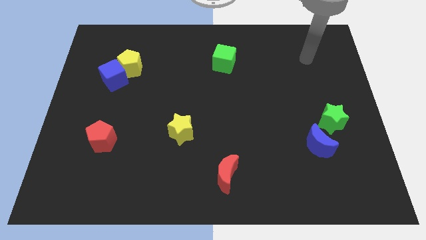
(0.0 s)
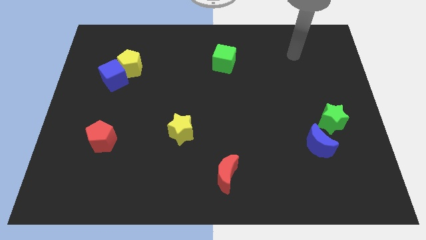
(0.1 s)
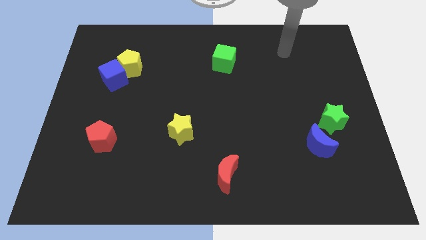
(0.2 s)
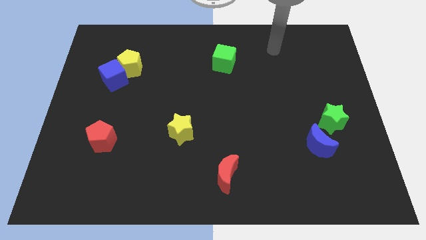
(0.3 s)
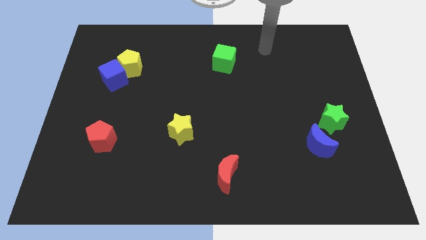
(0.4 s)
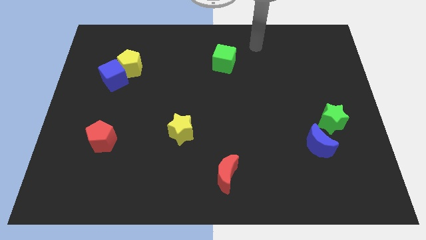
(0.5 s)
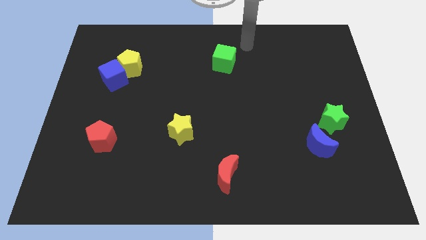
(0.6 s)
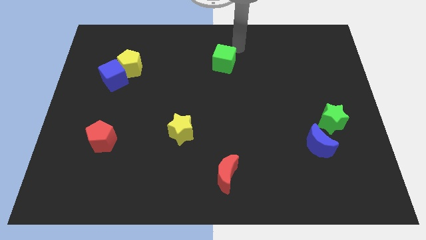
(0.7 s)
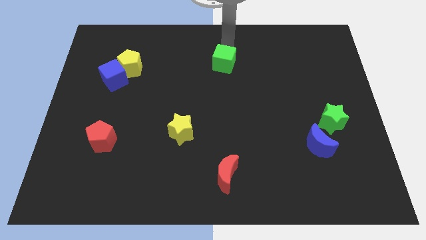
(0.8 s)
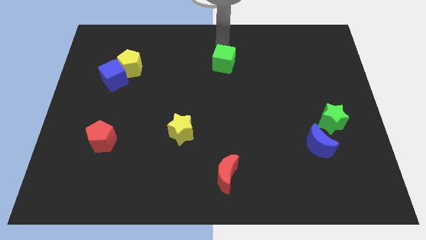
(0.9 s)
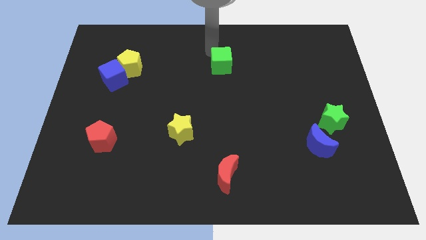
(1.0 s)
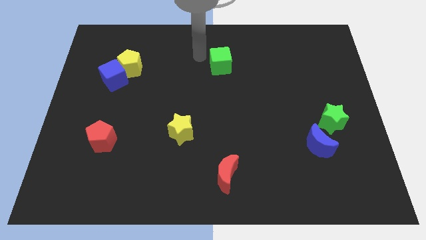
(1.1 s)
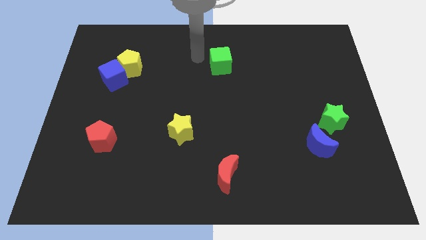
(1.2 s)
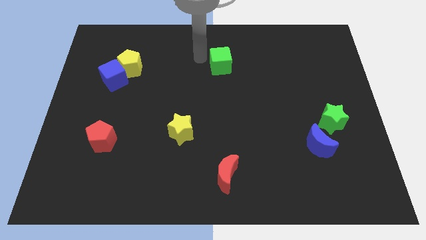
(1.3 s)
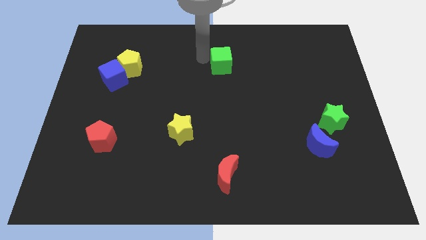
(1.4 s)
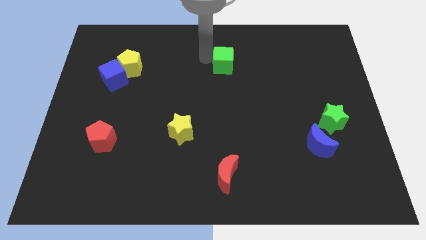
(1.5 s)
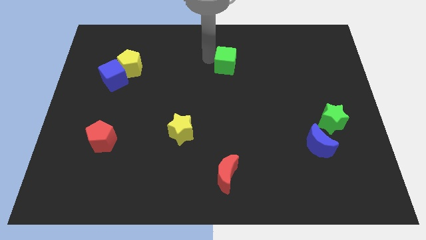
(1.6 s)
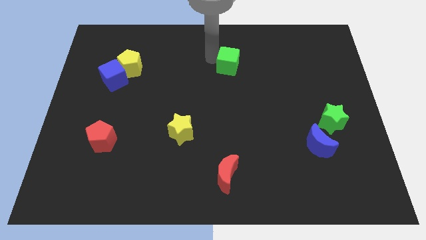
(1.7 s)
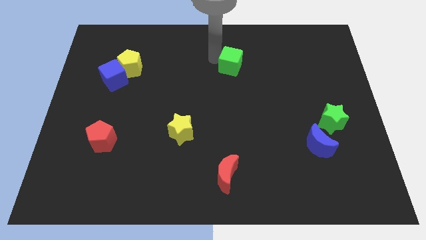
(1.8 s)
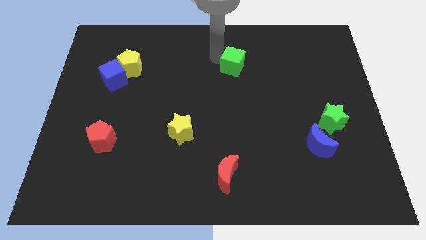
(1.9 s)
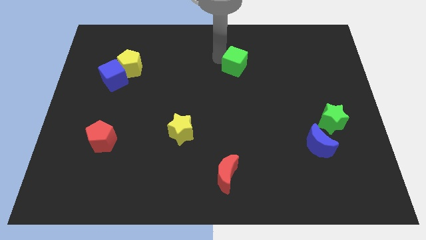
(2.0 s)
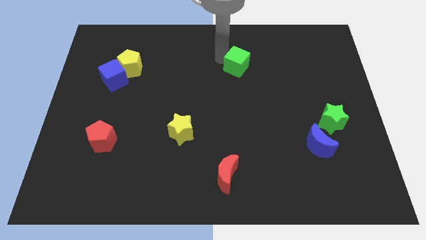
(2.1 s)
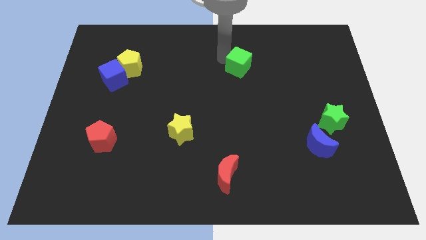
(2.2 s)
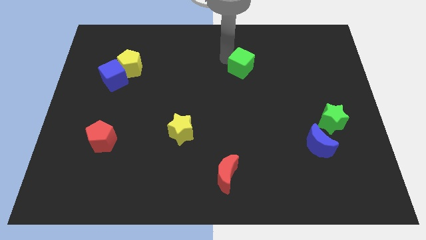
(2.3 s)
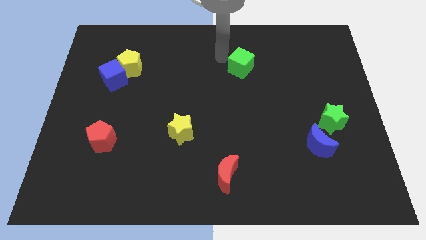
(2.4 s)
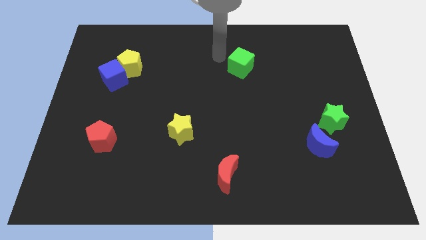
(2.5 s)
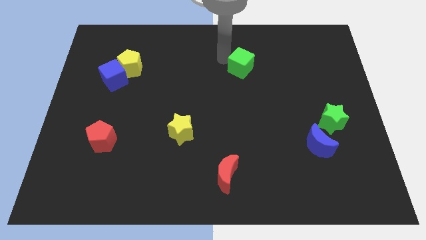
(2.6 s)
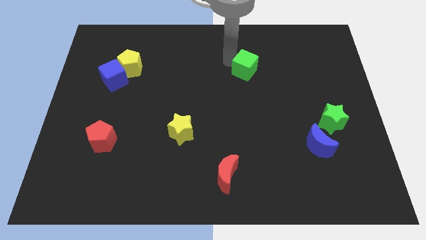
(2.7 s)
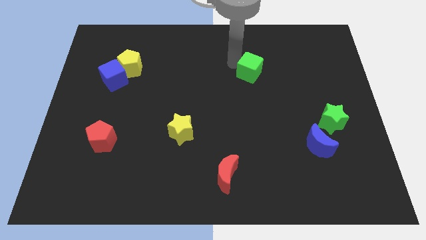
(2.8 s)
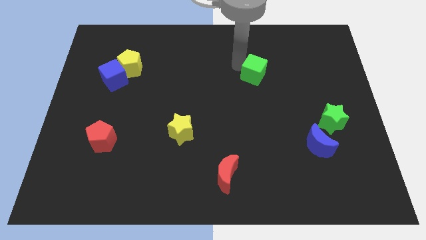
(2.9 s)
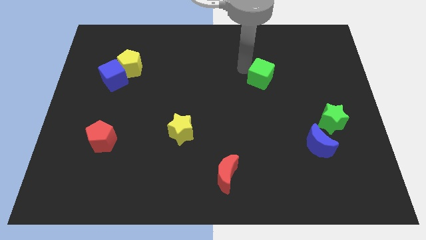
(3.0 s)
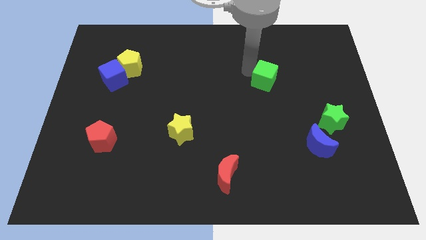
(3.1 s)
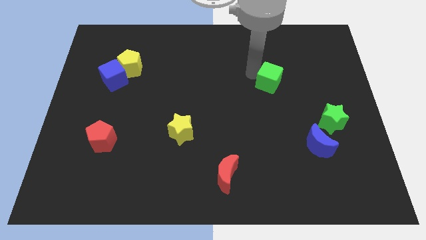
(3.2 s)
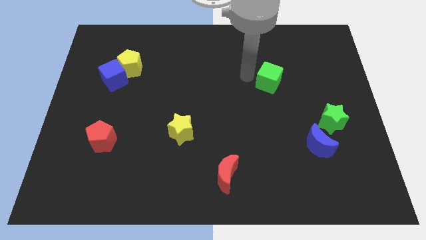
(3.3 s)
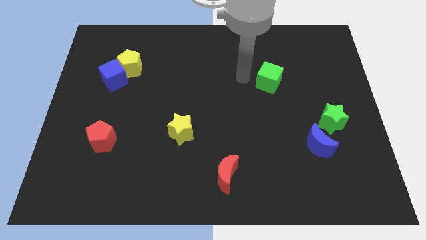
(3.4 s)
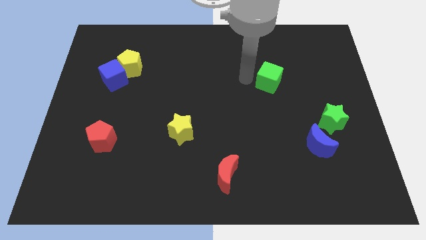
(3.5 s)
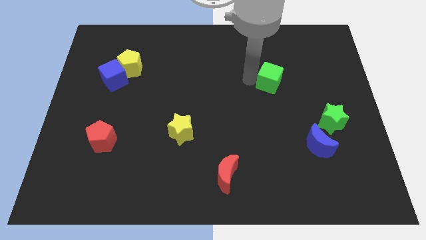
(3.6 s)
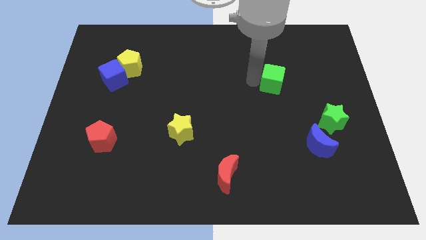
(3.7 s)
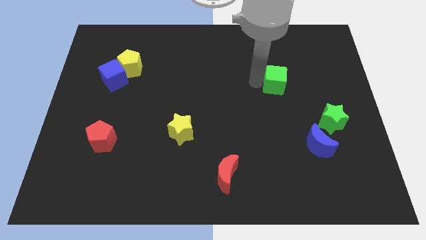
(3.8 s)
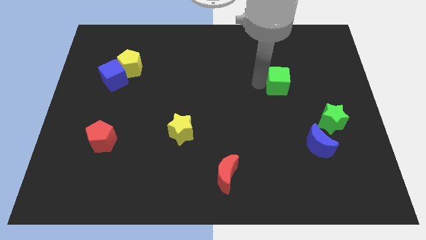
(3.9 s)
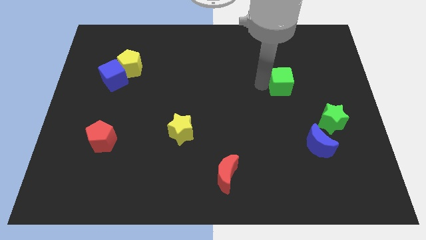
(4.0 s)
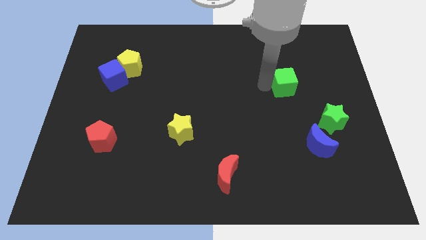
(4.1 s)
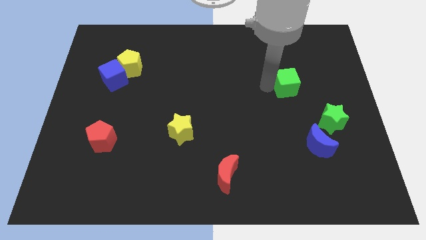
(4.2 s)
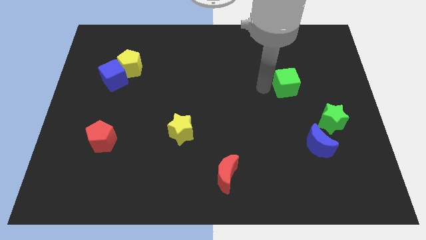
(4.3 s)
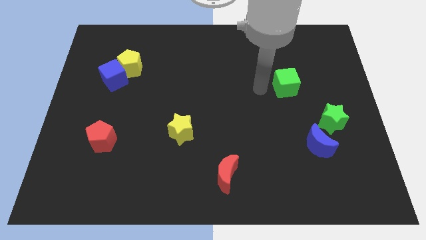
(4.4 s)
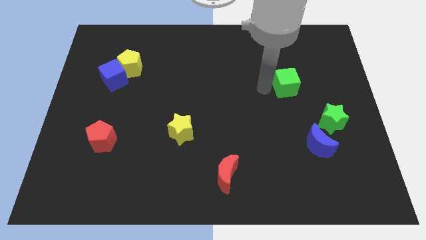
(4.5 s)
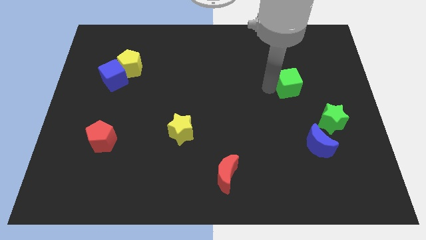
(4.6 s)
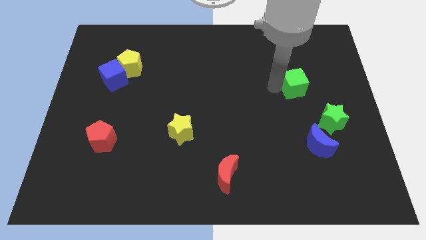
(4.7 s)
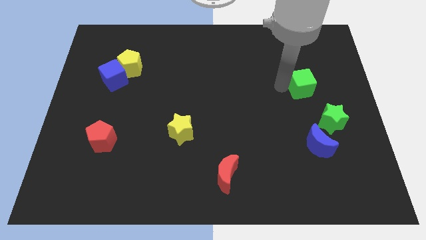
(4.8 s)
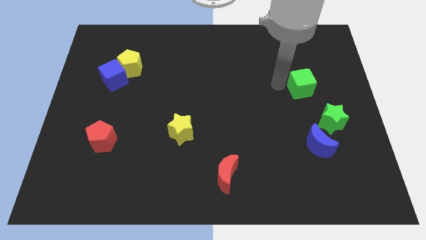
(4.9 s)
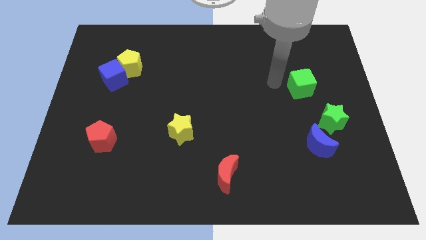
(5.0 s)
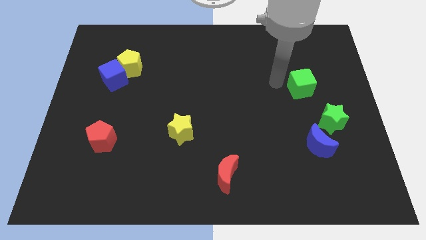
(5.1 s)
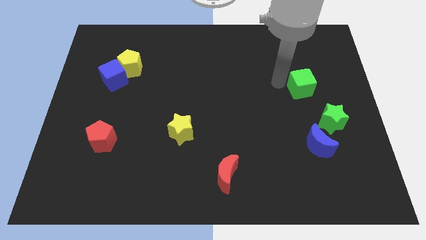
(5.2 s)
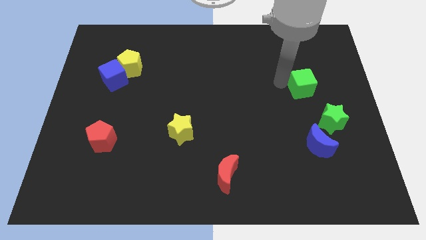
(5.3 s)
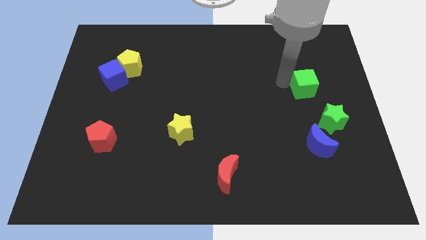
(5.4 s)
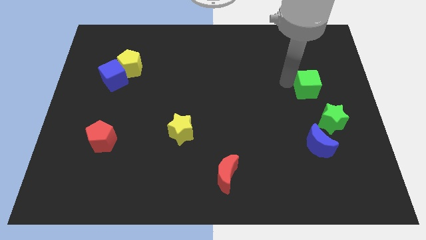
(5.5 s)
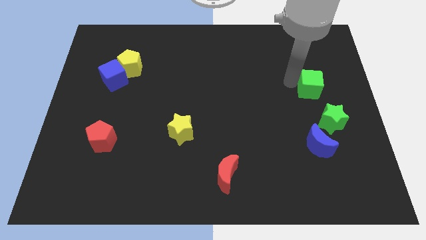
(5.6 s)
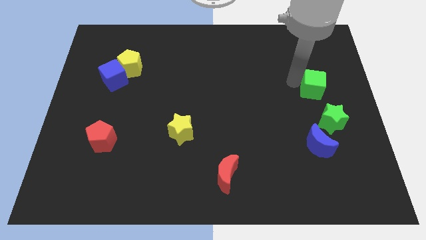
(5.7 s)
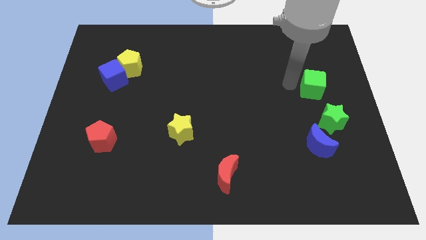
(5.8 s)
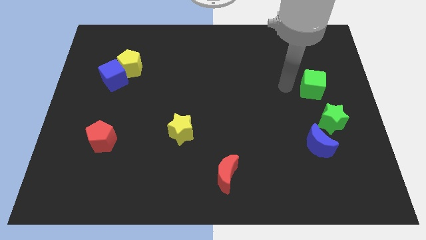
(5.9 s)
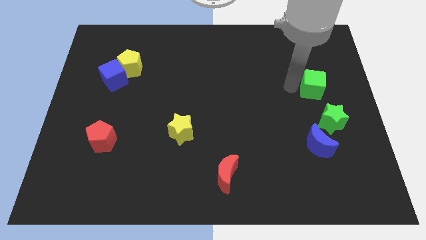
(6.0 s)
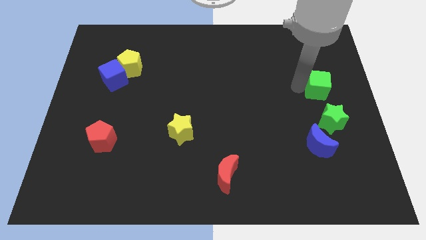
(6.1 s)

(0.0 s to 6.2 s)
put the green cube to the right side

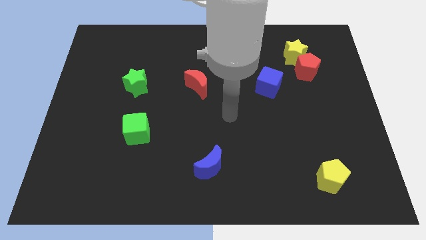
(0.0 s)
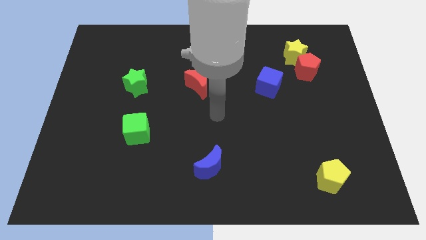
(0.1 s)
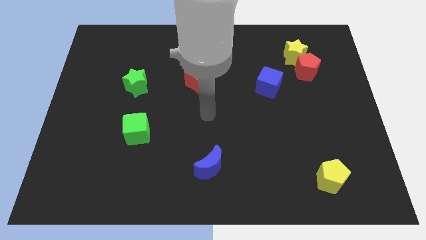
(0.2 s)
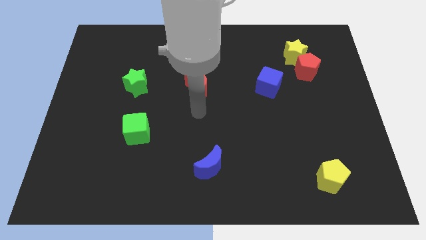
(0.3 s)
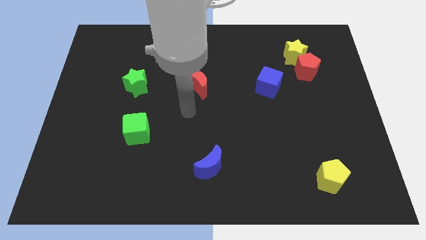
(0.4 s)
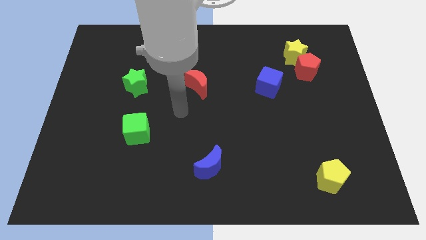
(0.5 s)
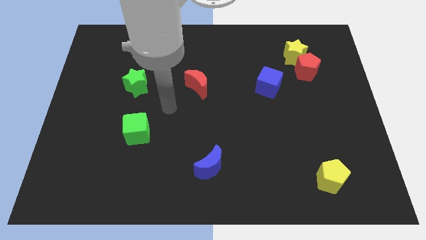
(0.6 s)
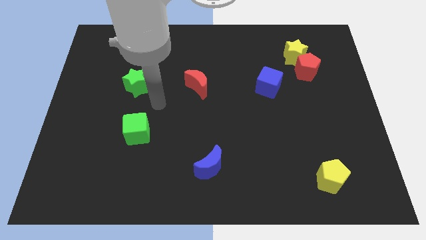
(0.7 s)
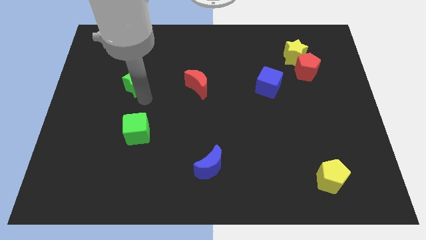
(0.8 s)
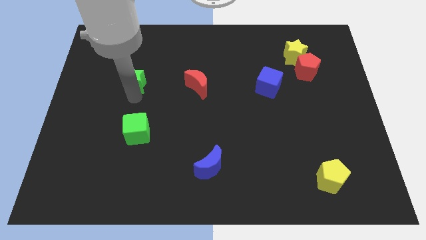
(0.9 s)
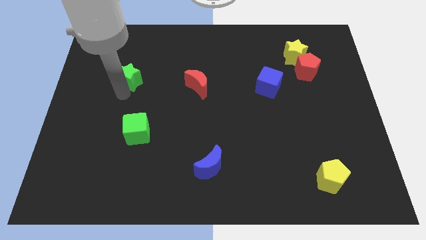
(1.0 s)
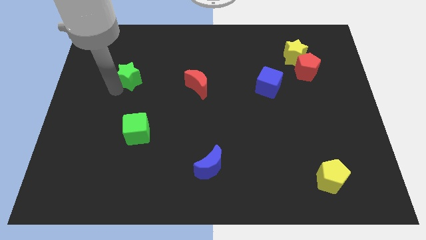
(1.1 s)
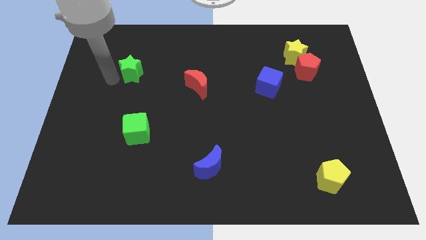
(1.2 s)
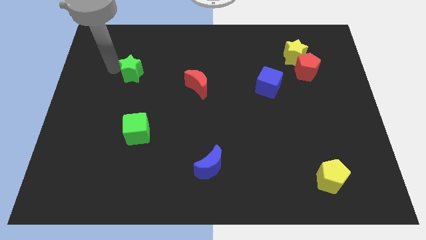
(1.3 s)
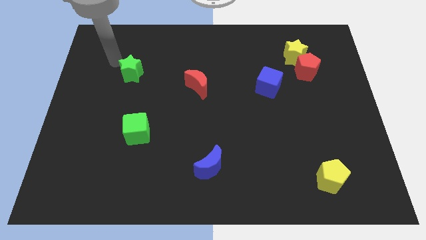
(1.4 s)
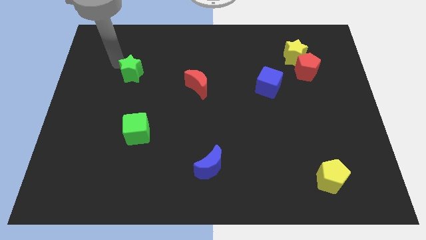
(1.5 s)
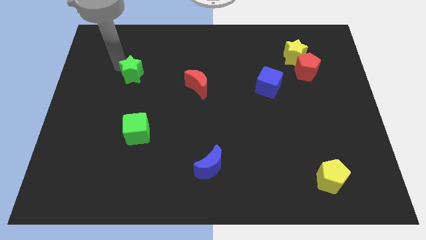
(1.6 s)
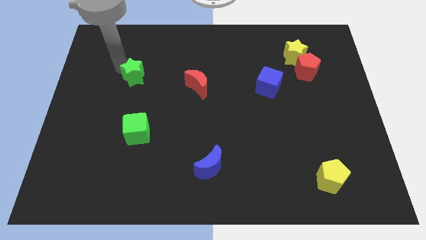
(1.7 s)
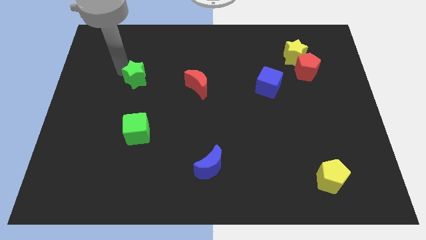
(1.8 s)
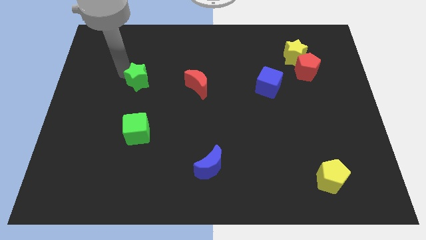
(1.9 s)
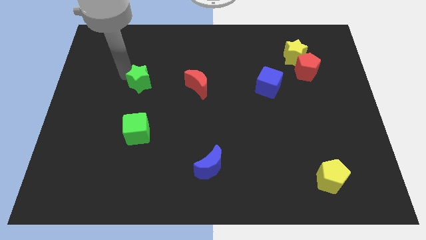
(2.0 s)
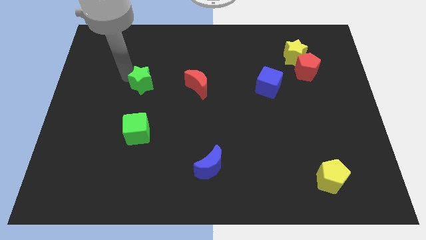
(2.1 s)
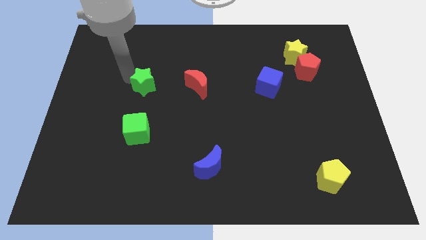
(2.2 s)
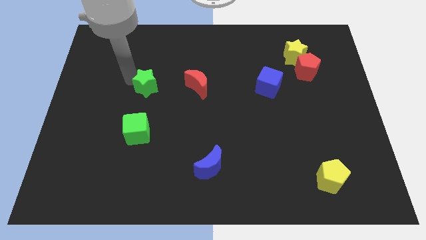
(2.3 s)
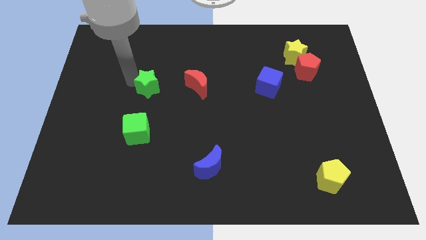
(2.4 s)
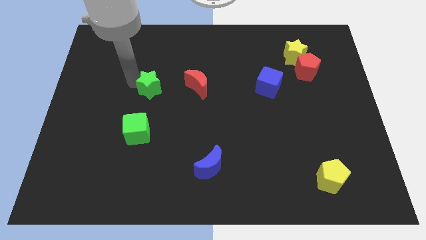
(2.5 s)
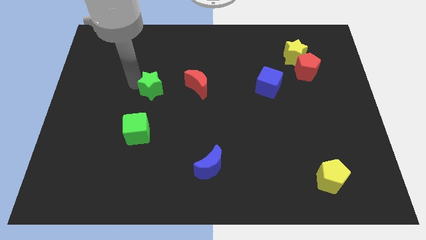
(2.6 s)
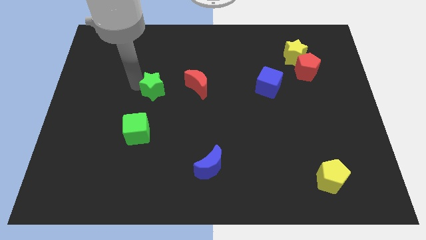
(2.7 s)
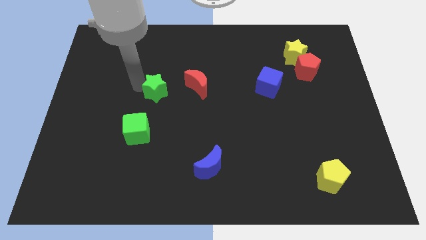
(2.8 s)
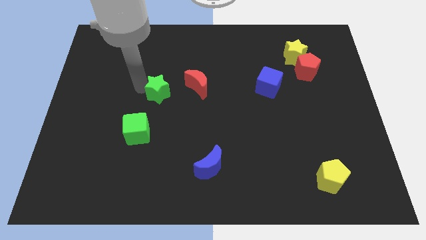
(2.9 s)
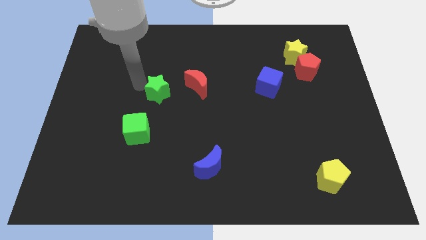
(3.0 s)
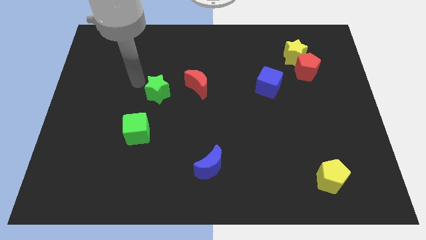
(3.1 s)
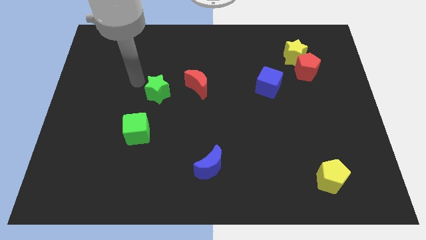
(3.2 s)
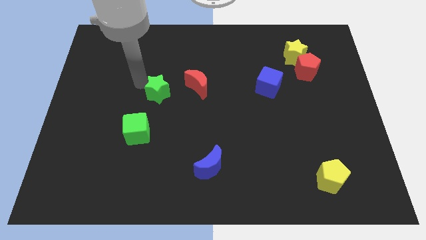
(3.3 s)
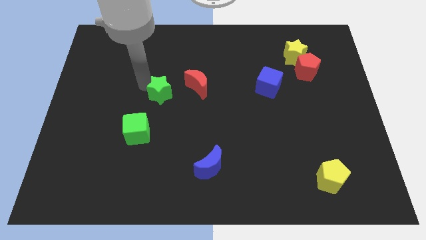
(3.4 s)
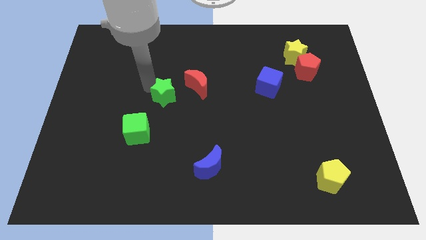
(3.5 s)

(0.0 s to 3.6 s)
put the green star to the middle
